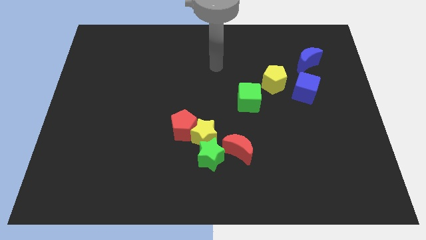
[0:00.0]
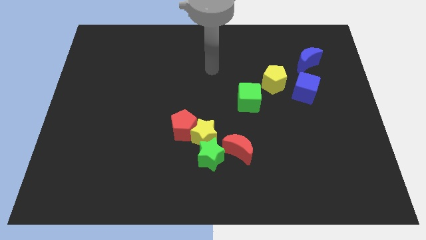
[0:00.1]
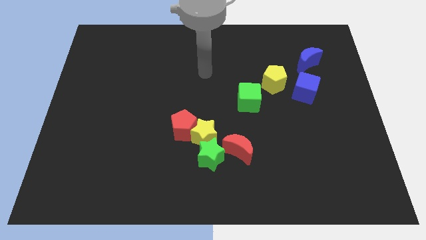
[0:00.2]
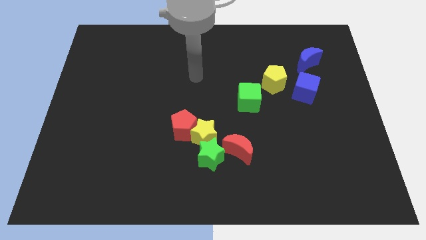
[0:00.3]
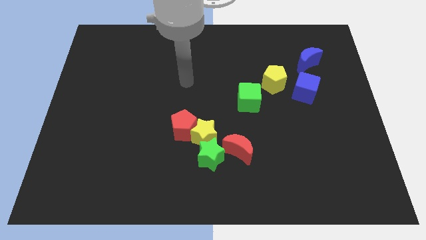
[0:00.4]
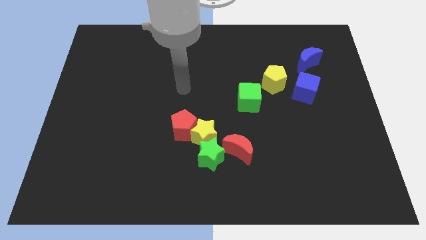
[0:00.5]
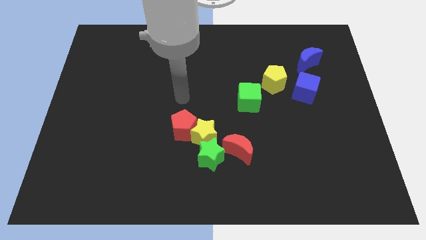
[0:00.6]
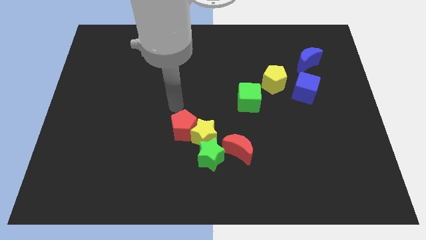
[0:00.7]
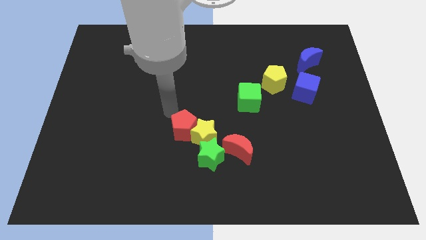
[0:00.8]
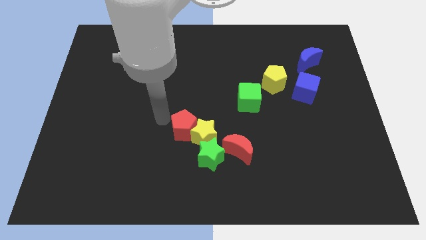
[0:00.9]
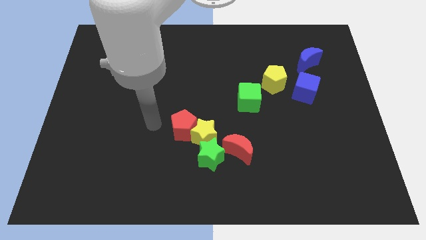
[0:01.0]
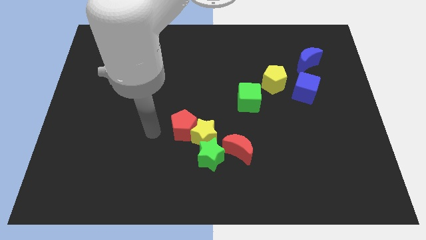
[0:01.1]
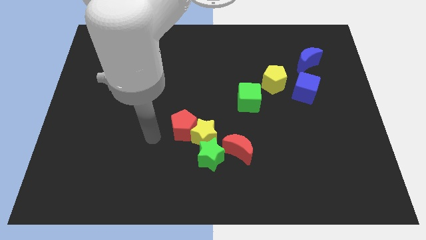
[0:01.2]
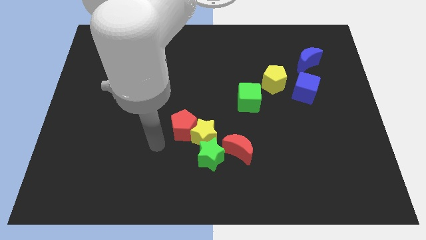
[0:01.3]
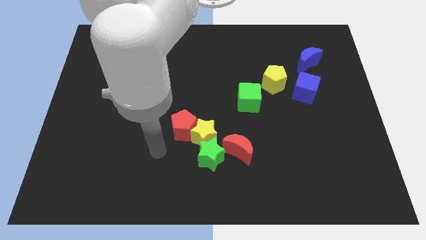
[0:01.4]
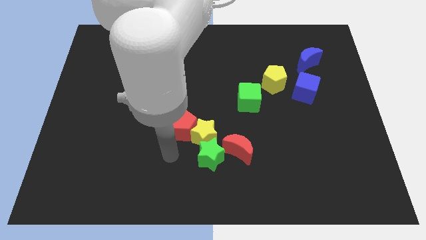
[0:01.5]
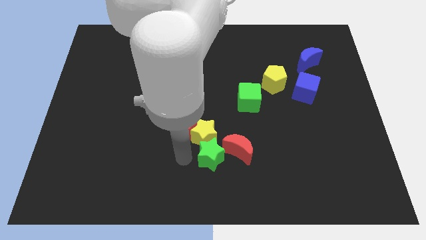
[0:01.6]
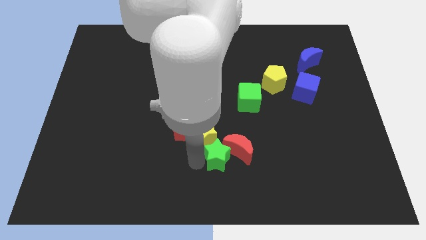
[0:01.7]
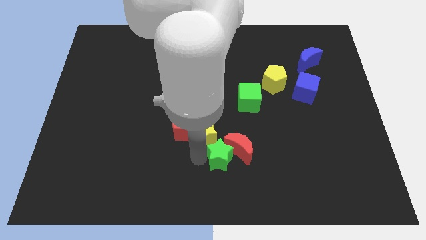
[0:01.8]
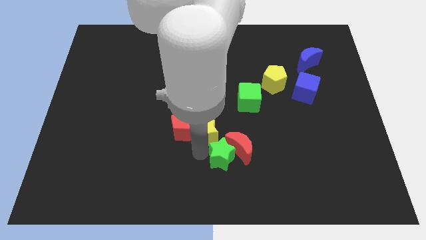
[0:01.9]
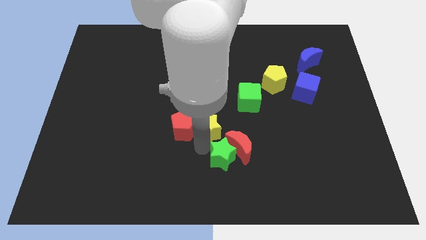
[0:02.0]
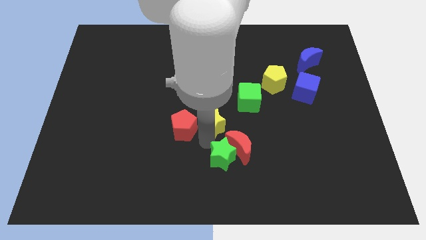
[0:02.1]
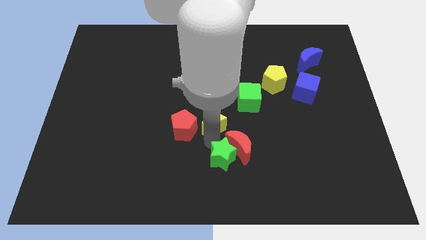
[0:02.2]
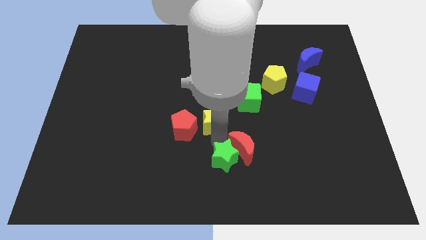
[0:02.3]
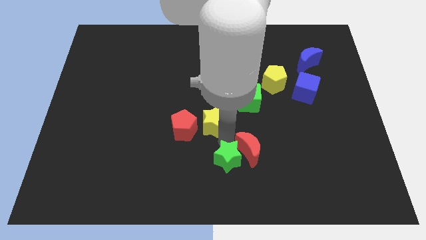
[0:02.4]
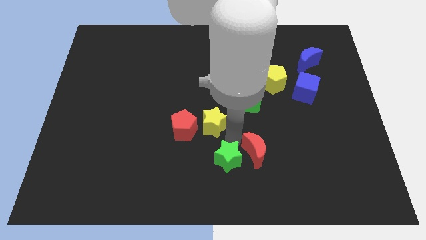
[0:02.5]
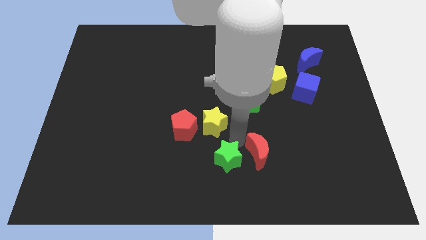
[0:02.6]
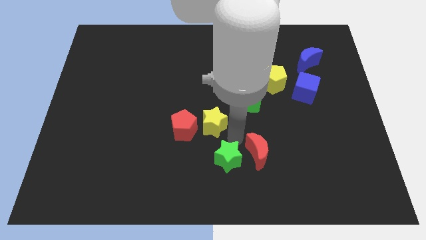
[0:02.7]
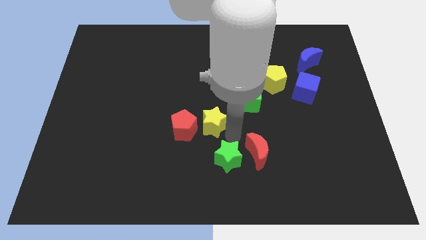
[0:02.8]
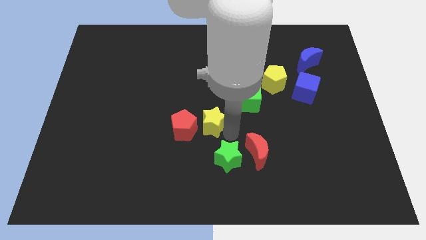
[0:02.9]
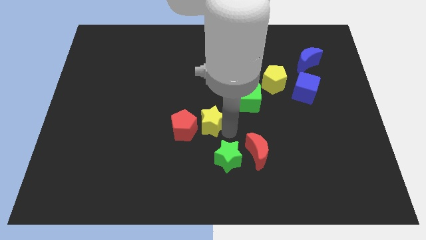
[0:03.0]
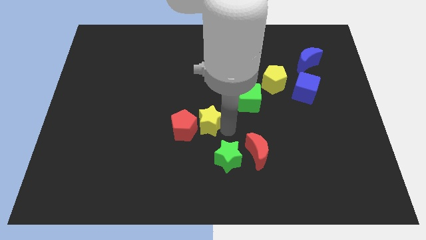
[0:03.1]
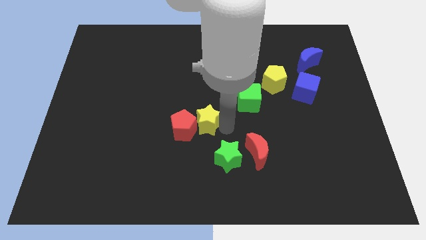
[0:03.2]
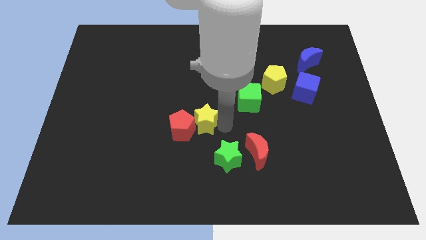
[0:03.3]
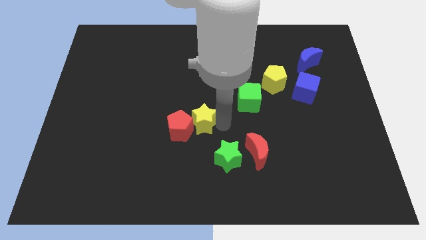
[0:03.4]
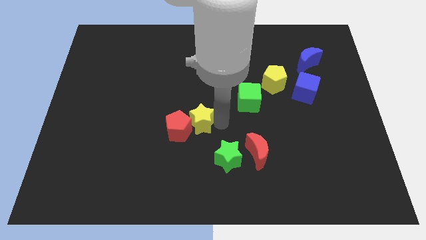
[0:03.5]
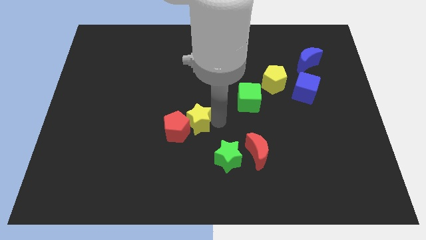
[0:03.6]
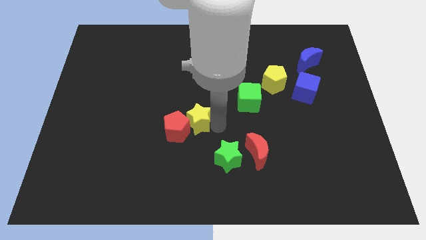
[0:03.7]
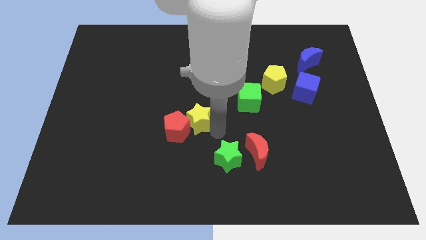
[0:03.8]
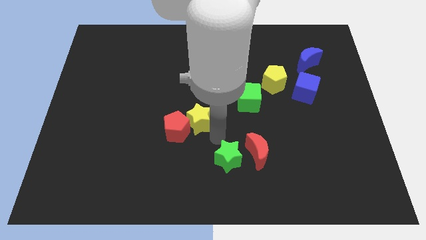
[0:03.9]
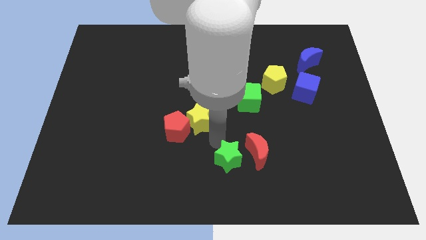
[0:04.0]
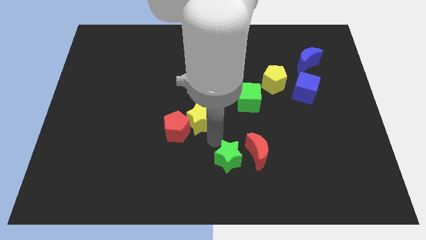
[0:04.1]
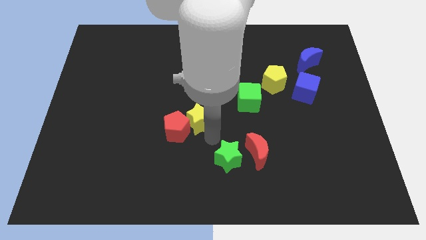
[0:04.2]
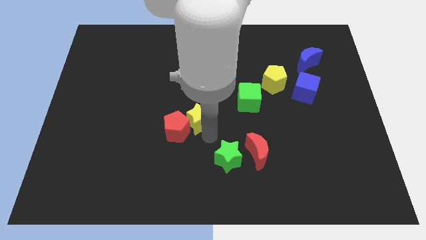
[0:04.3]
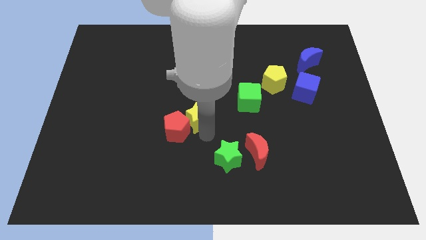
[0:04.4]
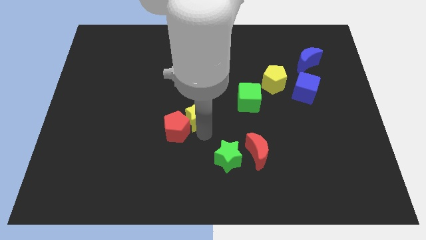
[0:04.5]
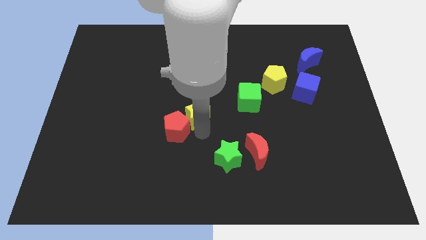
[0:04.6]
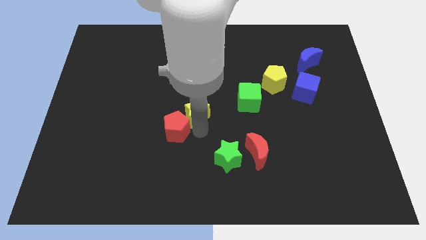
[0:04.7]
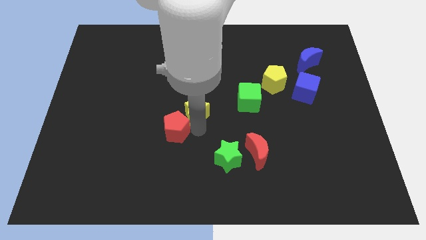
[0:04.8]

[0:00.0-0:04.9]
move the yellow star away from the green star, red pentagon, and red moon

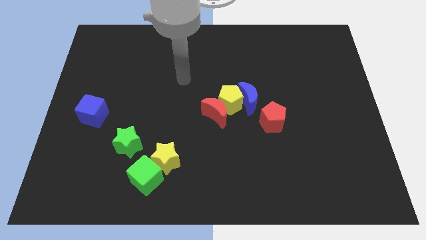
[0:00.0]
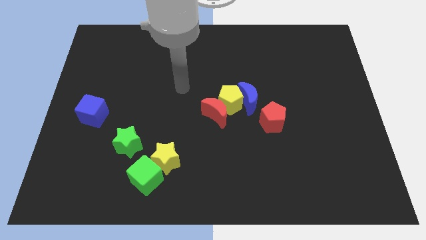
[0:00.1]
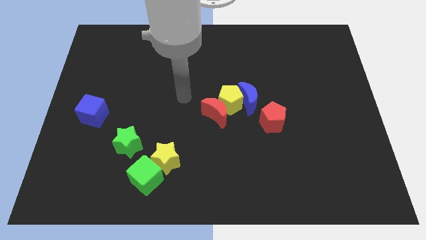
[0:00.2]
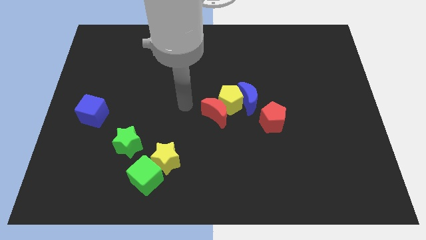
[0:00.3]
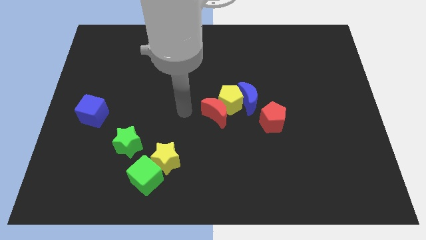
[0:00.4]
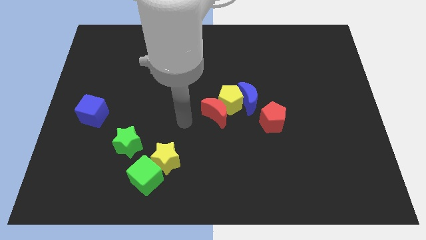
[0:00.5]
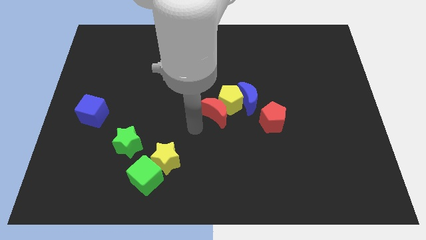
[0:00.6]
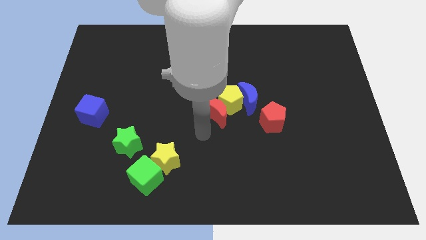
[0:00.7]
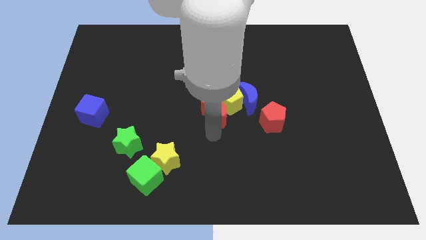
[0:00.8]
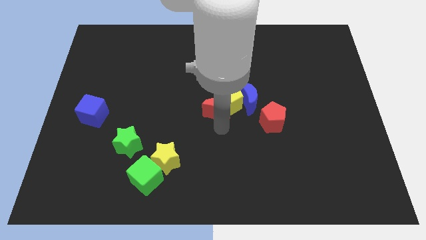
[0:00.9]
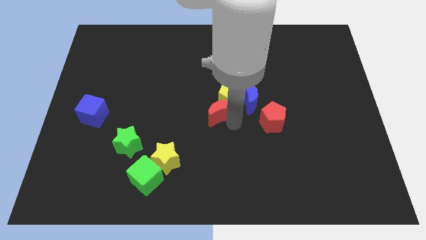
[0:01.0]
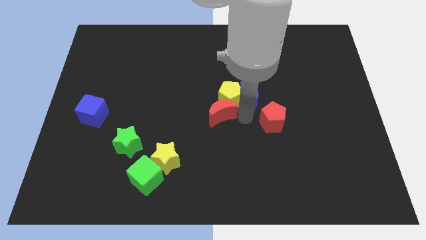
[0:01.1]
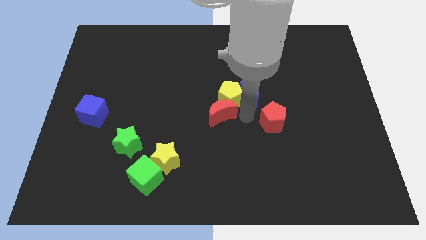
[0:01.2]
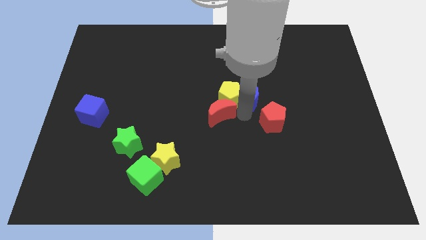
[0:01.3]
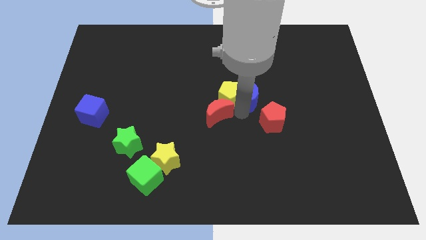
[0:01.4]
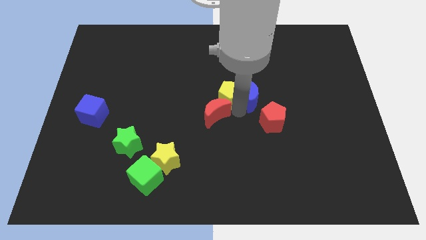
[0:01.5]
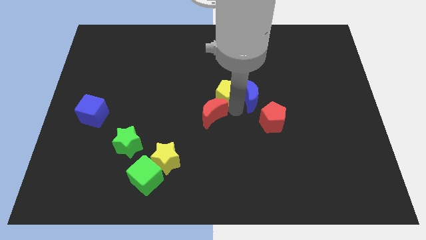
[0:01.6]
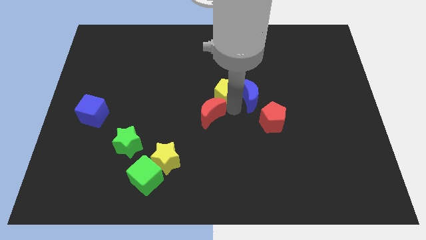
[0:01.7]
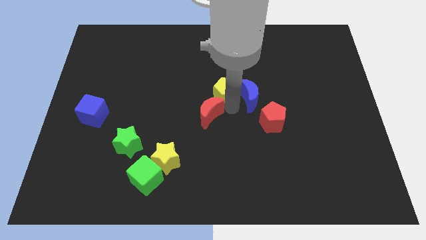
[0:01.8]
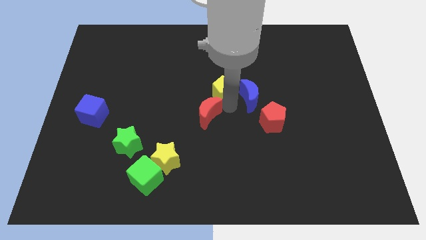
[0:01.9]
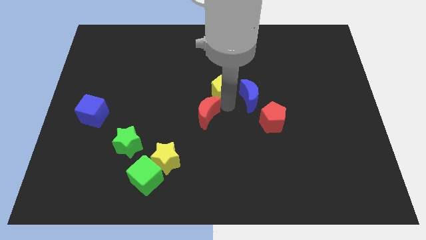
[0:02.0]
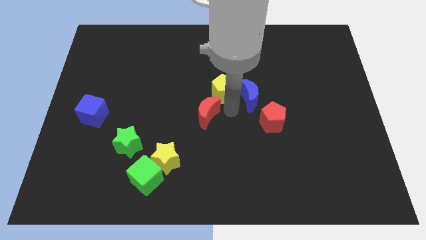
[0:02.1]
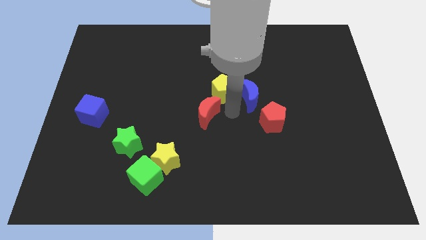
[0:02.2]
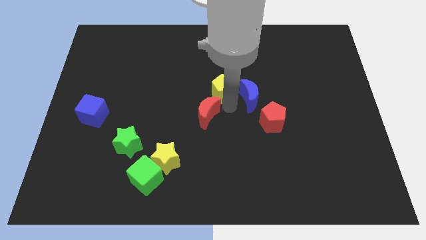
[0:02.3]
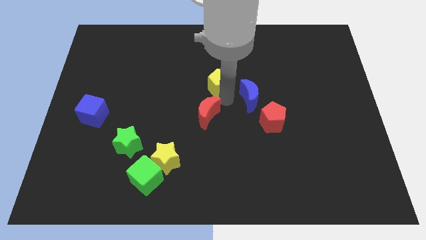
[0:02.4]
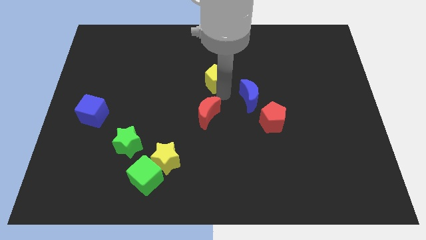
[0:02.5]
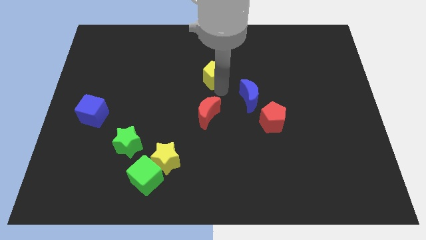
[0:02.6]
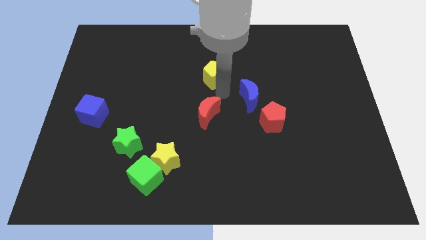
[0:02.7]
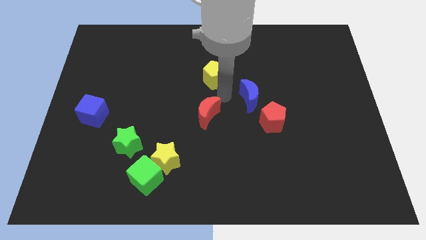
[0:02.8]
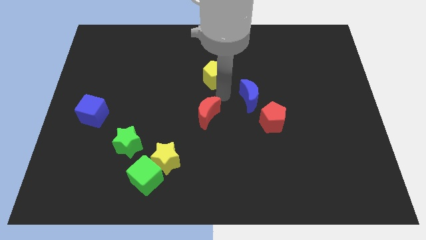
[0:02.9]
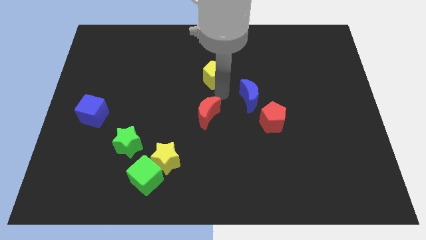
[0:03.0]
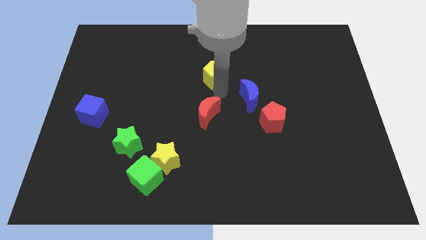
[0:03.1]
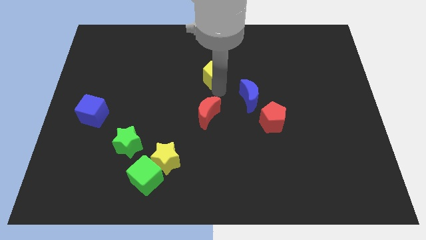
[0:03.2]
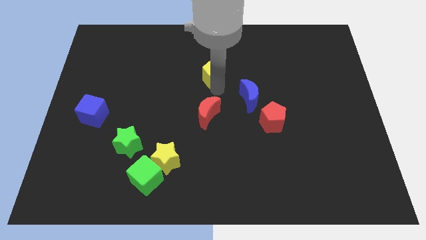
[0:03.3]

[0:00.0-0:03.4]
separate the yellow pentagon from the red moon and blue moon

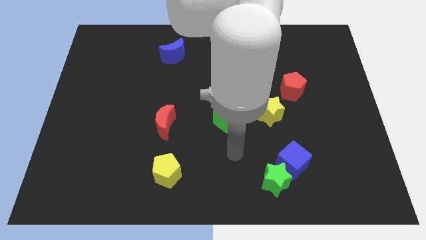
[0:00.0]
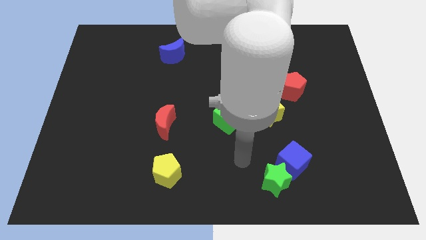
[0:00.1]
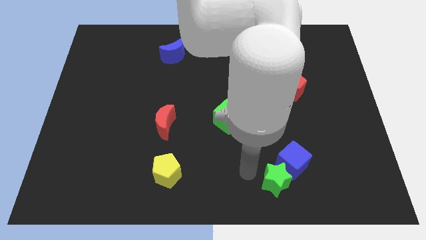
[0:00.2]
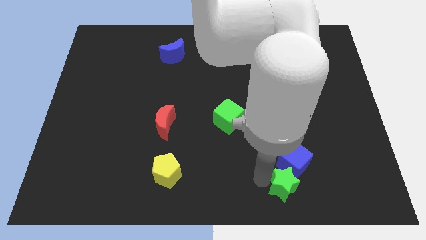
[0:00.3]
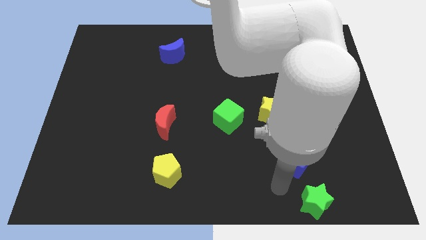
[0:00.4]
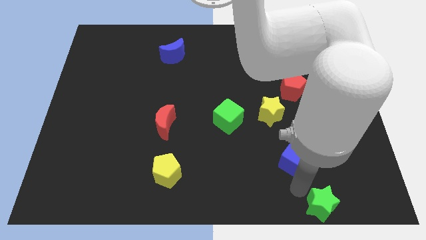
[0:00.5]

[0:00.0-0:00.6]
pull the blue cube apart from the green star

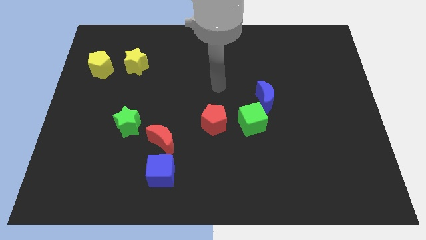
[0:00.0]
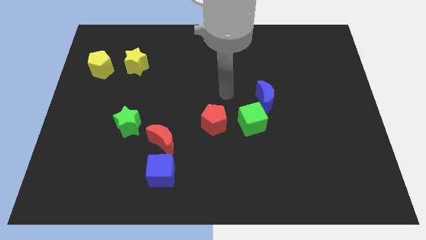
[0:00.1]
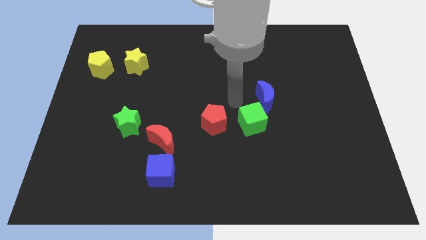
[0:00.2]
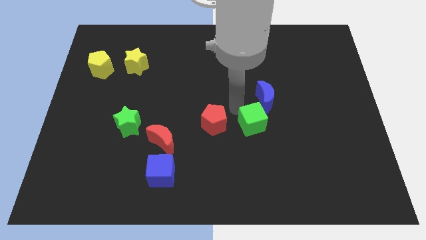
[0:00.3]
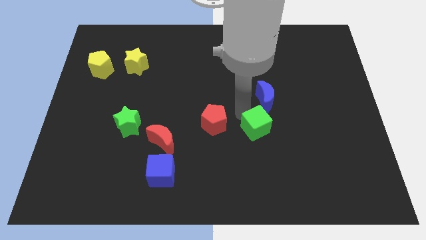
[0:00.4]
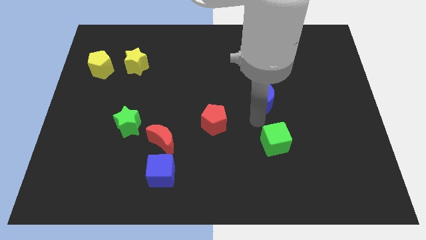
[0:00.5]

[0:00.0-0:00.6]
pull the blue moon apart from the green cube
